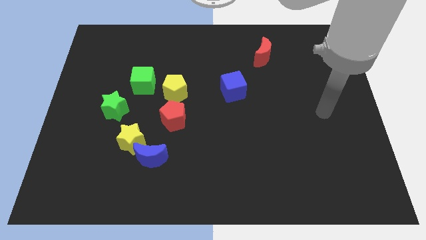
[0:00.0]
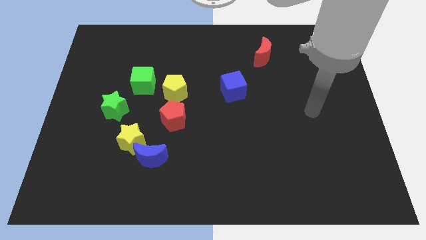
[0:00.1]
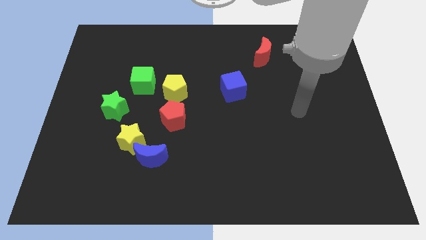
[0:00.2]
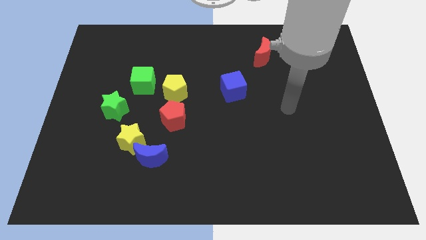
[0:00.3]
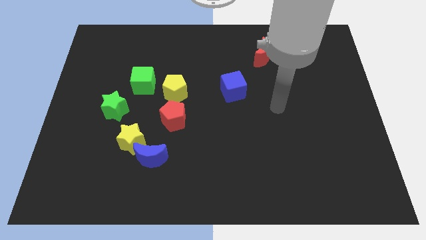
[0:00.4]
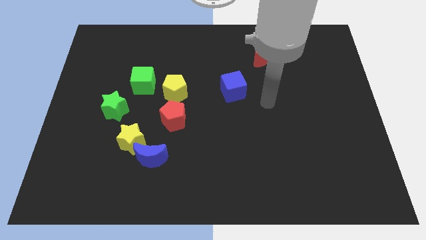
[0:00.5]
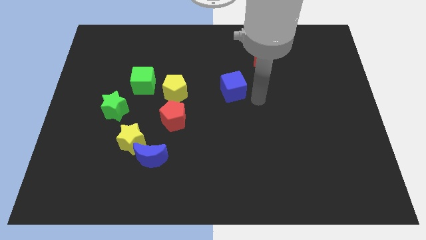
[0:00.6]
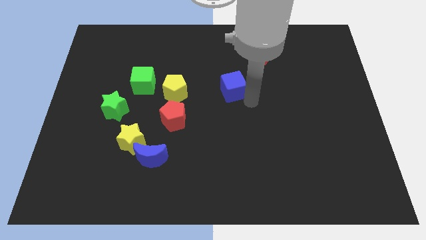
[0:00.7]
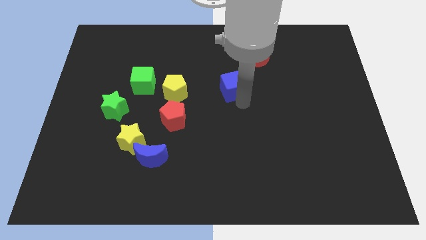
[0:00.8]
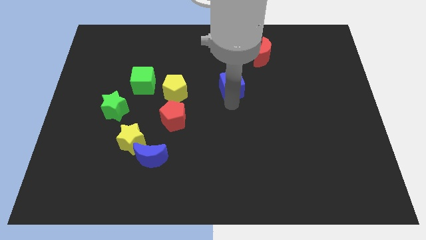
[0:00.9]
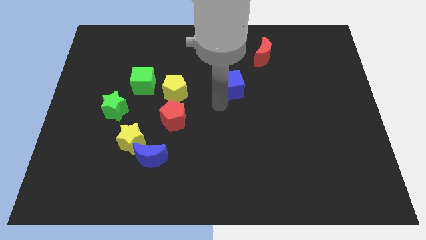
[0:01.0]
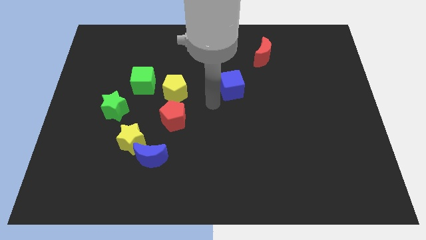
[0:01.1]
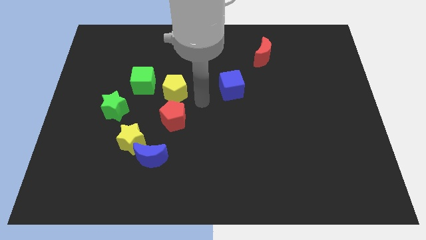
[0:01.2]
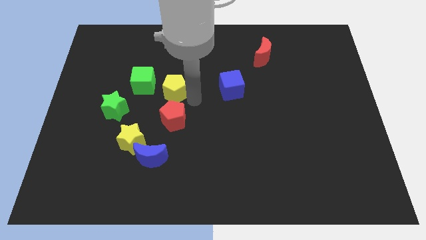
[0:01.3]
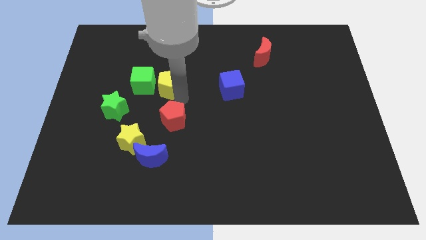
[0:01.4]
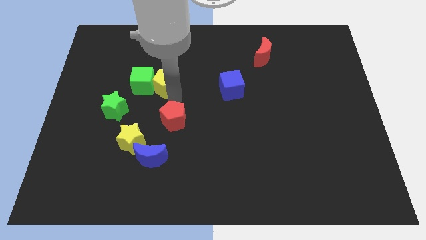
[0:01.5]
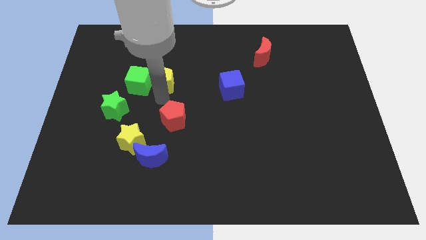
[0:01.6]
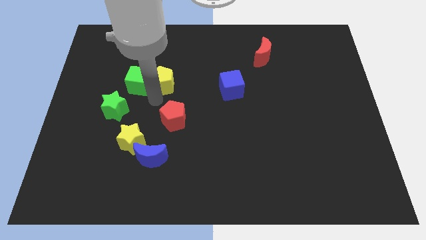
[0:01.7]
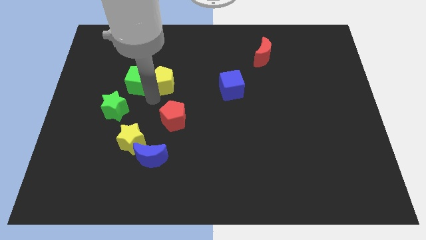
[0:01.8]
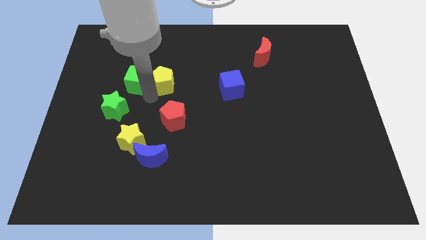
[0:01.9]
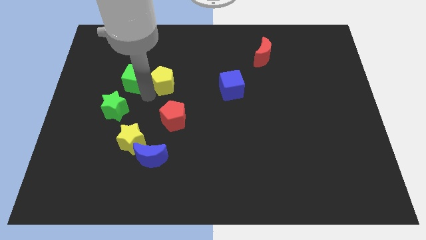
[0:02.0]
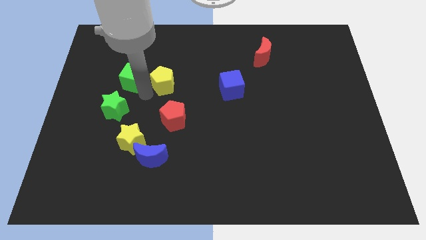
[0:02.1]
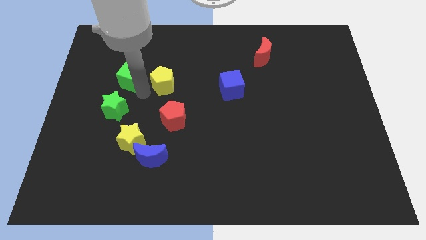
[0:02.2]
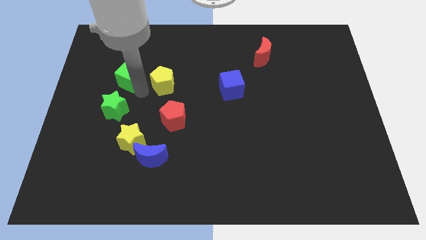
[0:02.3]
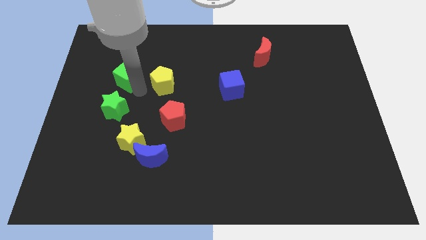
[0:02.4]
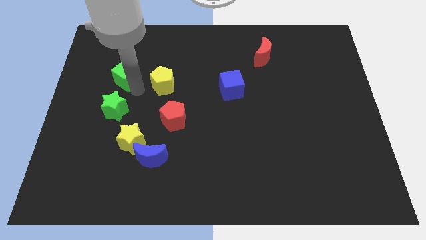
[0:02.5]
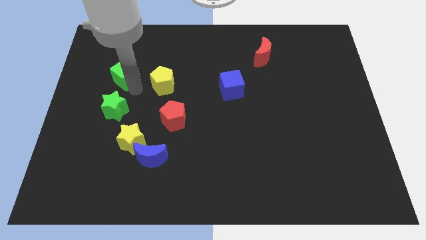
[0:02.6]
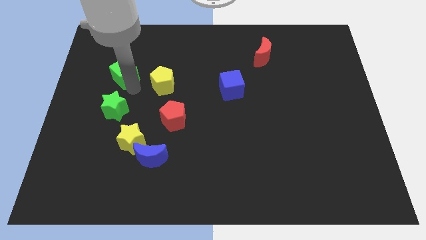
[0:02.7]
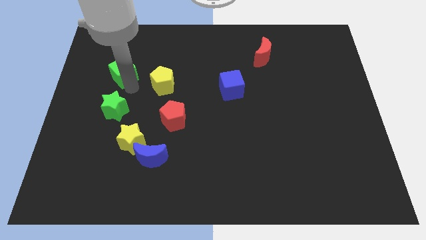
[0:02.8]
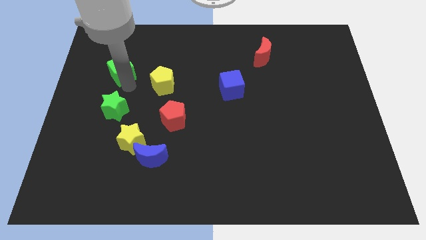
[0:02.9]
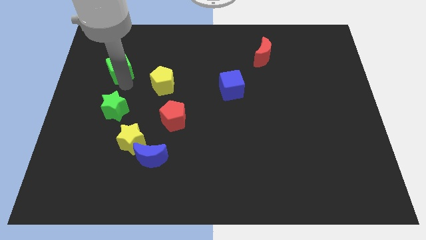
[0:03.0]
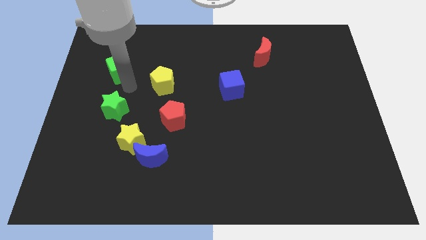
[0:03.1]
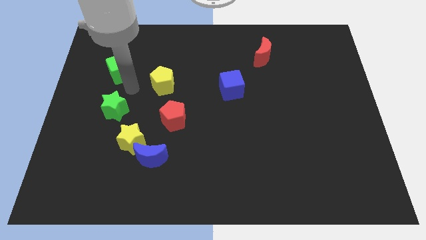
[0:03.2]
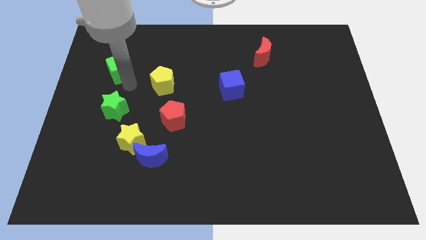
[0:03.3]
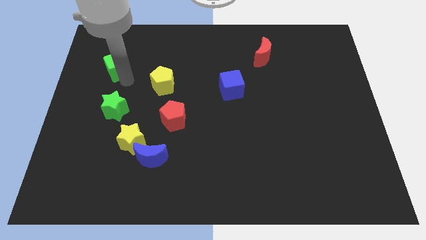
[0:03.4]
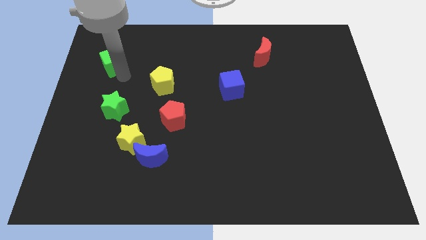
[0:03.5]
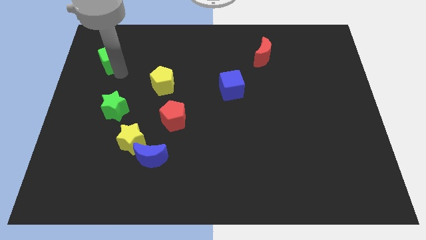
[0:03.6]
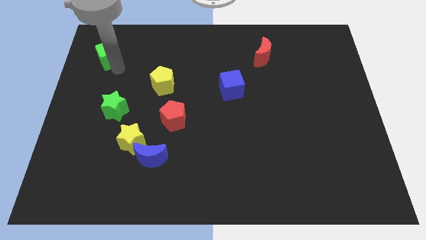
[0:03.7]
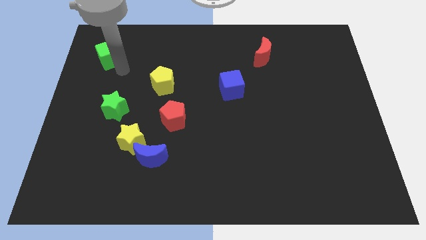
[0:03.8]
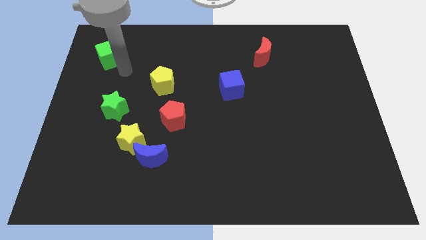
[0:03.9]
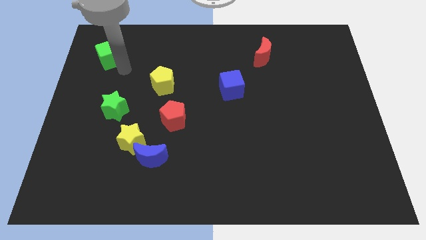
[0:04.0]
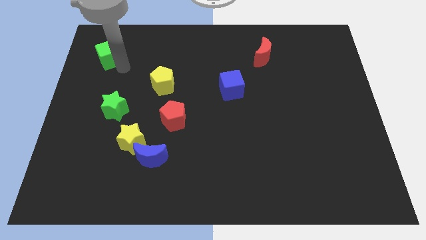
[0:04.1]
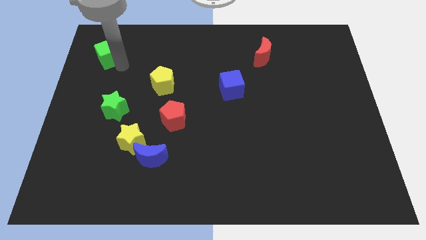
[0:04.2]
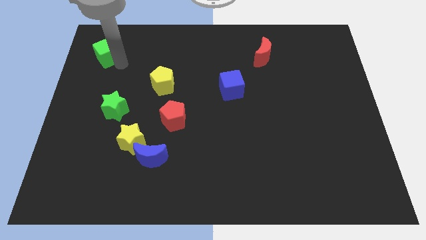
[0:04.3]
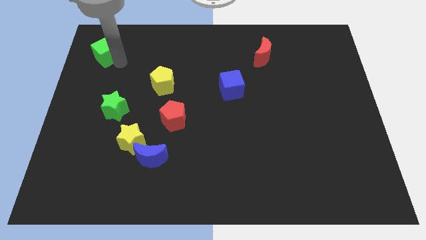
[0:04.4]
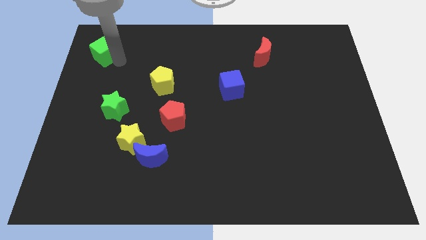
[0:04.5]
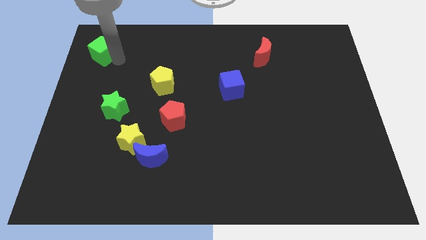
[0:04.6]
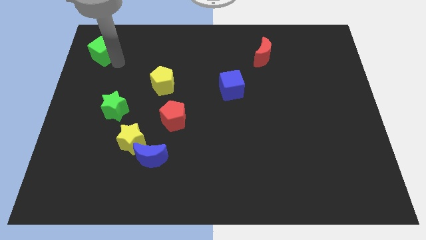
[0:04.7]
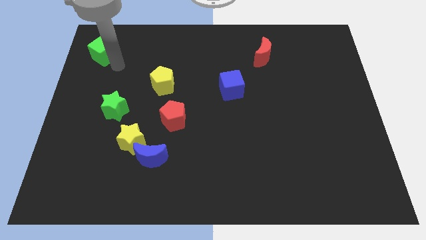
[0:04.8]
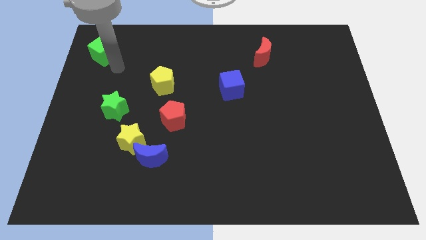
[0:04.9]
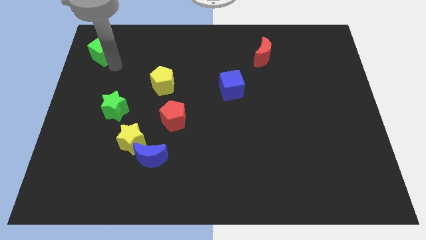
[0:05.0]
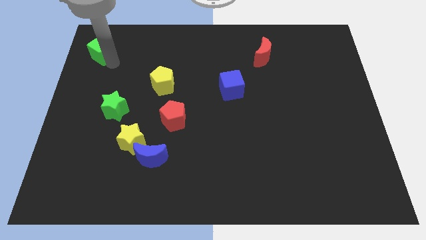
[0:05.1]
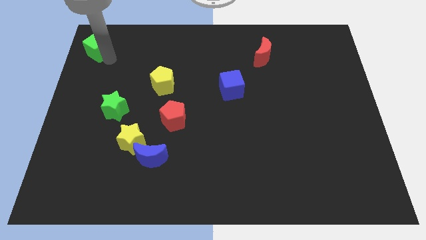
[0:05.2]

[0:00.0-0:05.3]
move the green cube to the top left of the board

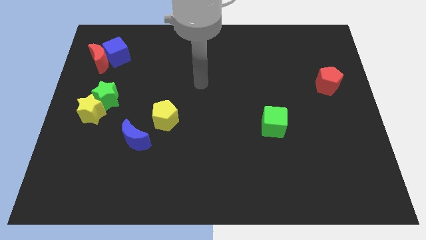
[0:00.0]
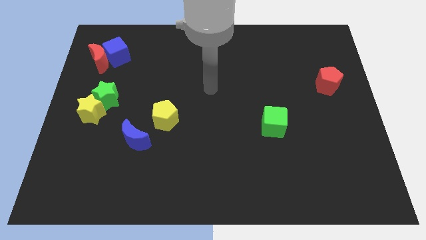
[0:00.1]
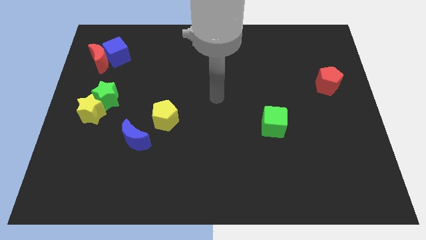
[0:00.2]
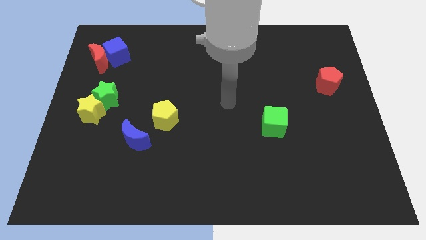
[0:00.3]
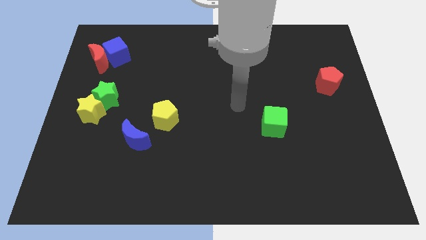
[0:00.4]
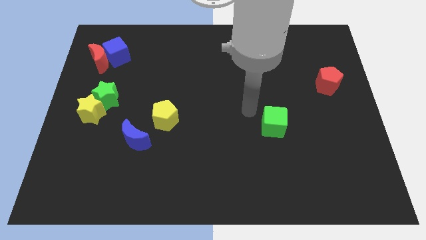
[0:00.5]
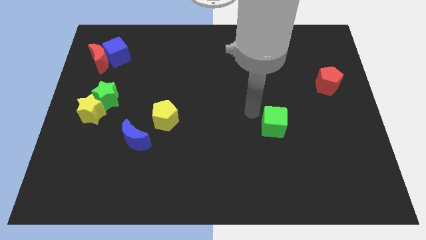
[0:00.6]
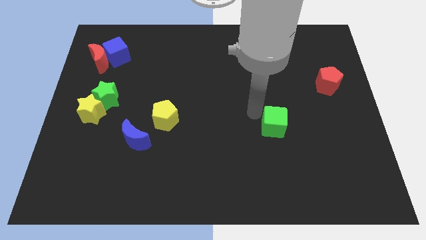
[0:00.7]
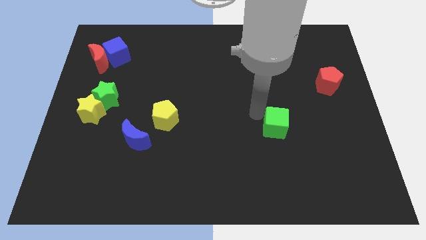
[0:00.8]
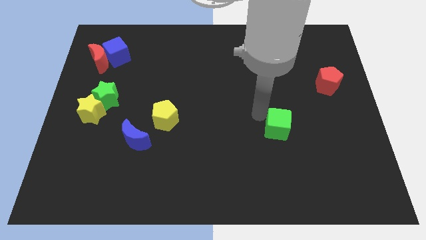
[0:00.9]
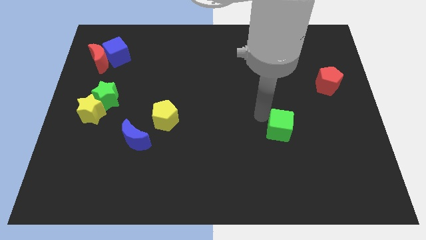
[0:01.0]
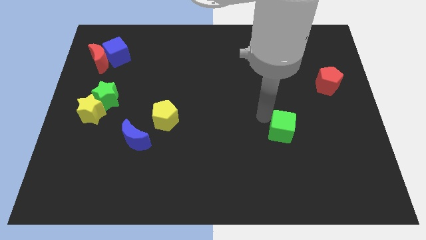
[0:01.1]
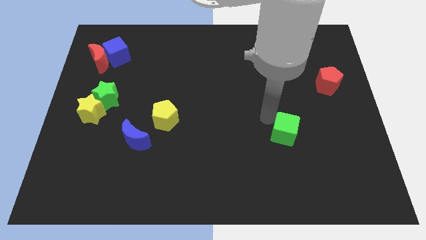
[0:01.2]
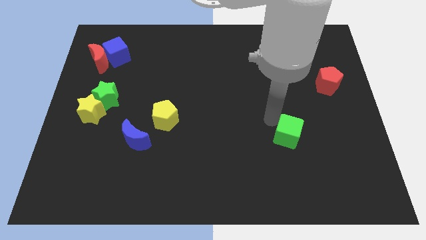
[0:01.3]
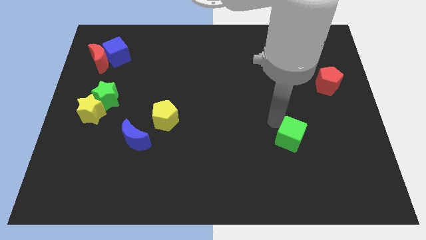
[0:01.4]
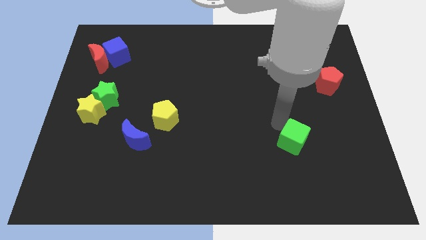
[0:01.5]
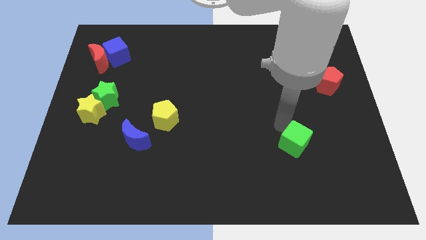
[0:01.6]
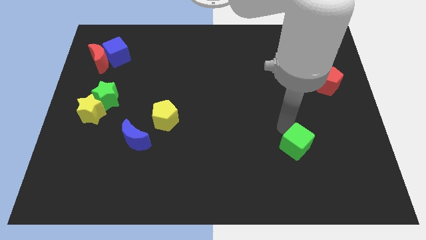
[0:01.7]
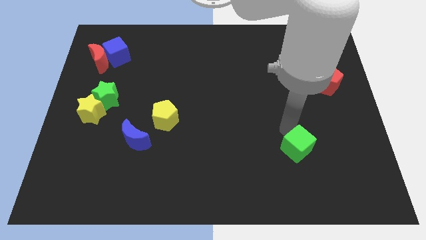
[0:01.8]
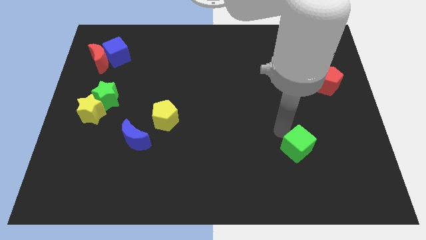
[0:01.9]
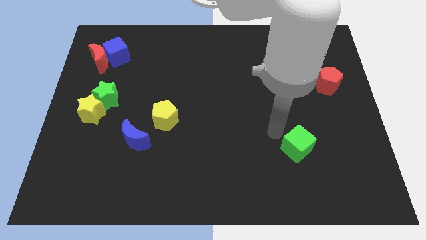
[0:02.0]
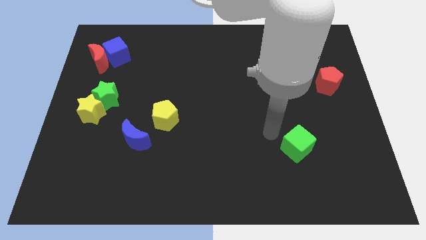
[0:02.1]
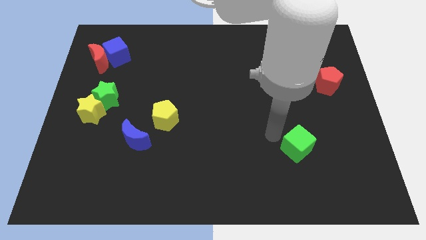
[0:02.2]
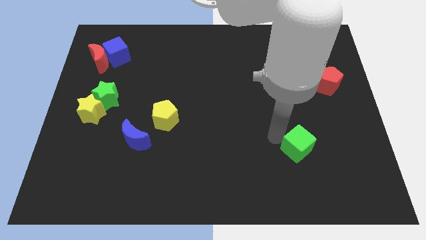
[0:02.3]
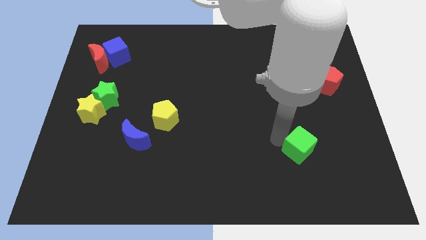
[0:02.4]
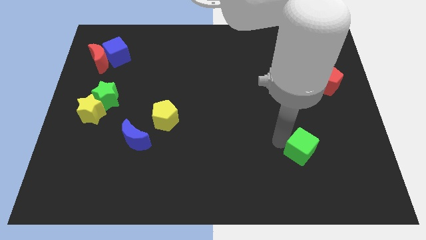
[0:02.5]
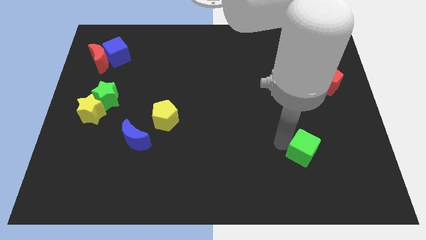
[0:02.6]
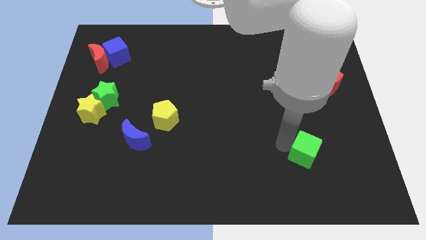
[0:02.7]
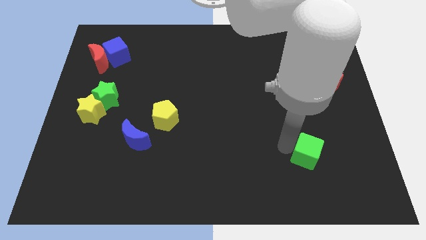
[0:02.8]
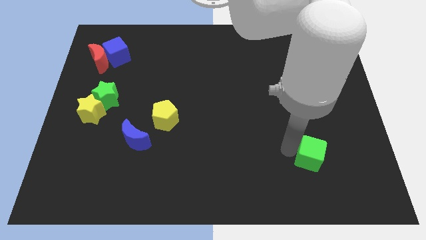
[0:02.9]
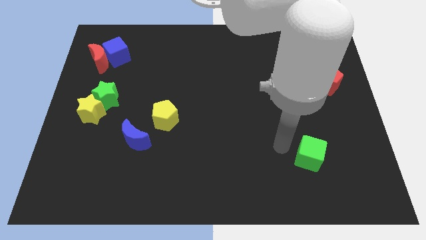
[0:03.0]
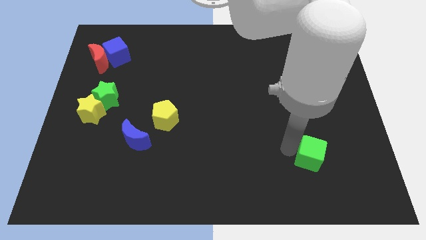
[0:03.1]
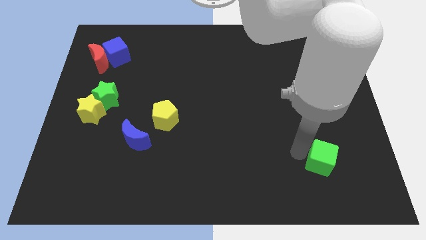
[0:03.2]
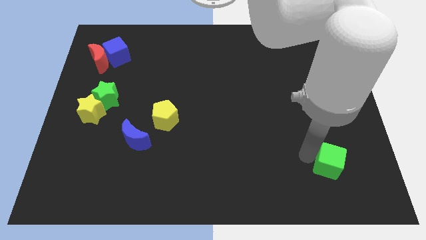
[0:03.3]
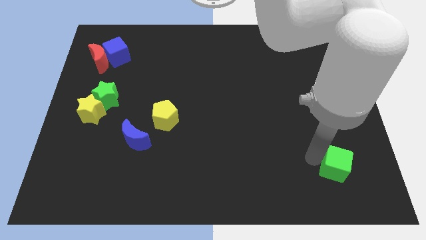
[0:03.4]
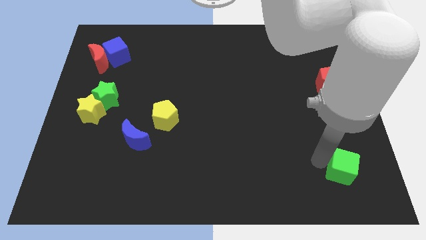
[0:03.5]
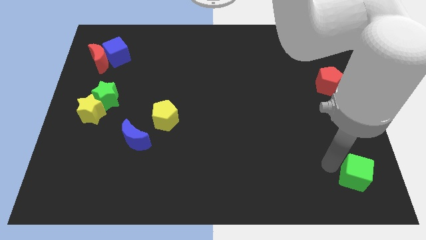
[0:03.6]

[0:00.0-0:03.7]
move the green cube to the lower right corner
